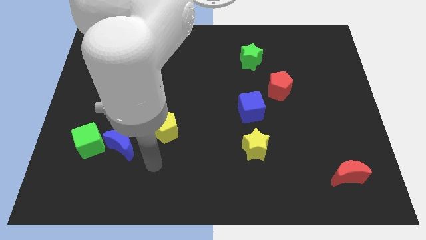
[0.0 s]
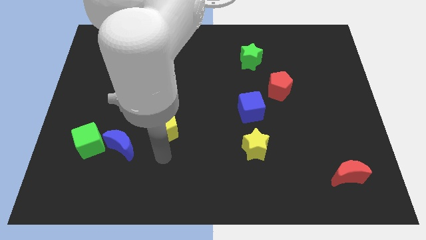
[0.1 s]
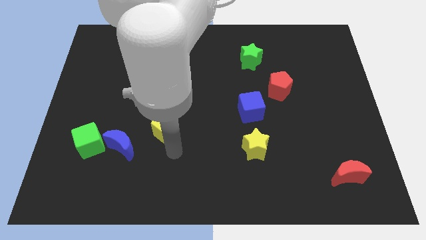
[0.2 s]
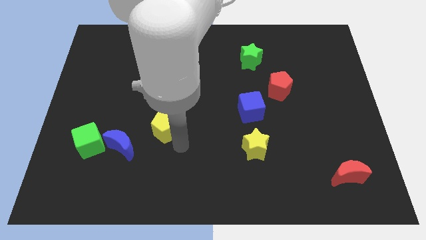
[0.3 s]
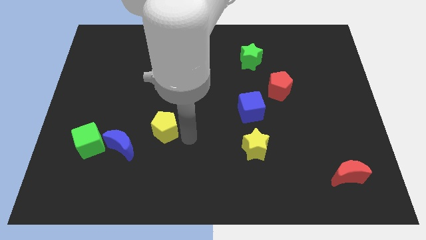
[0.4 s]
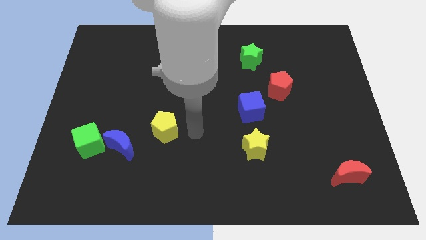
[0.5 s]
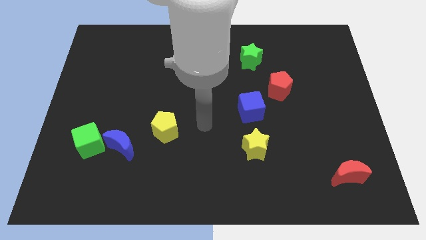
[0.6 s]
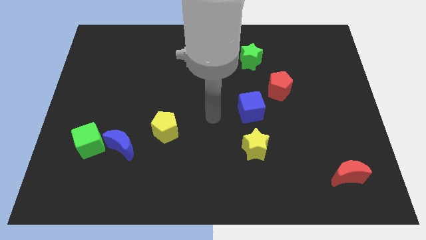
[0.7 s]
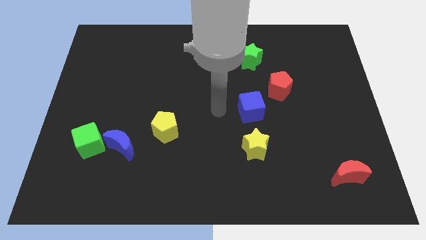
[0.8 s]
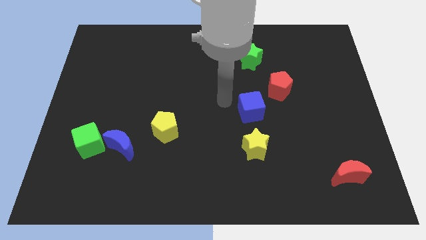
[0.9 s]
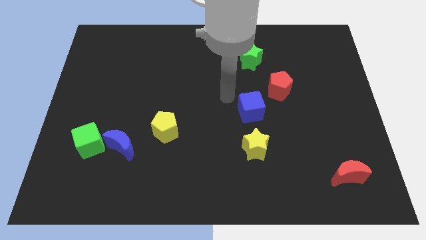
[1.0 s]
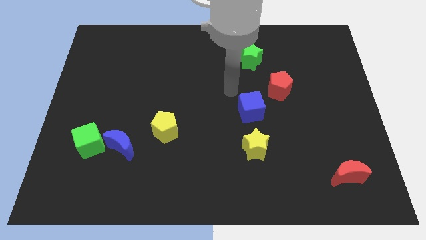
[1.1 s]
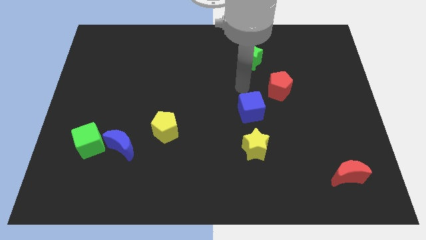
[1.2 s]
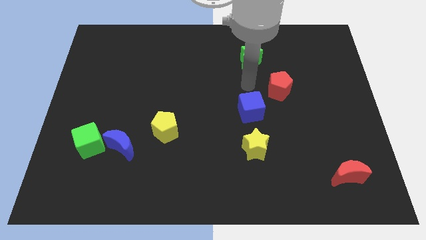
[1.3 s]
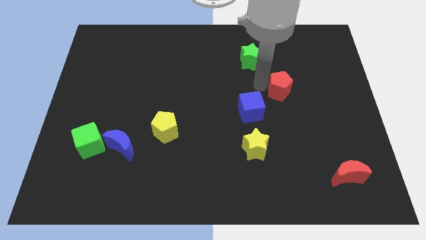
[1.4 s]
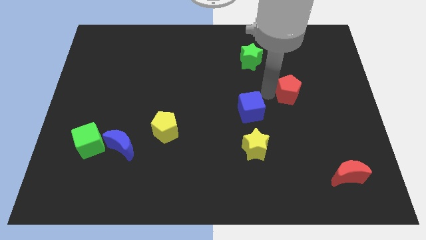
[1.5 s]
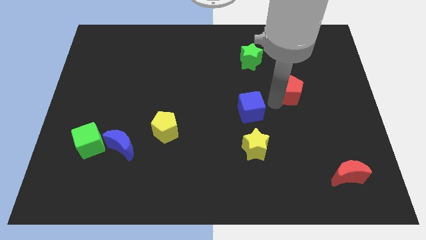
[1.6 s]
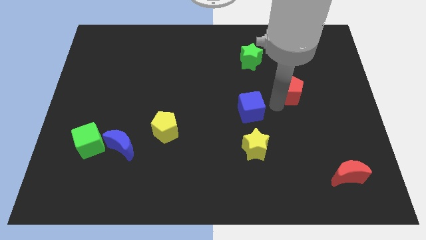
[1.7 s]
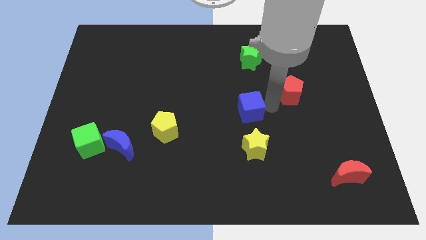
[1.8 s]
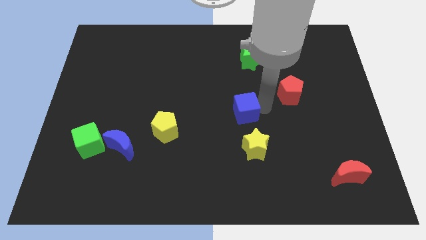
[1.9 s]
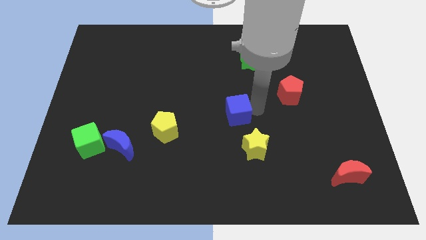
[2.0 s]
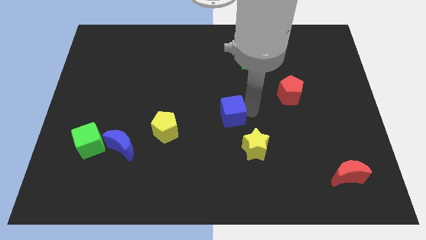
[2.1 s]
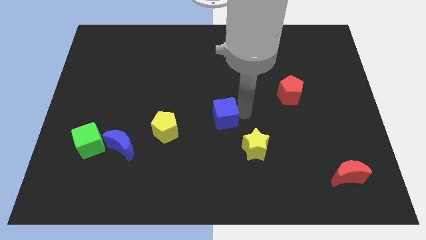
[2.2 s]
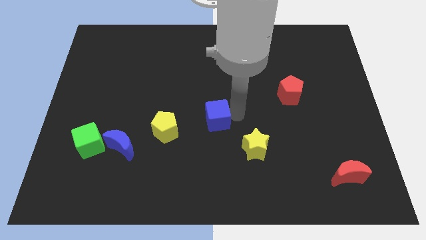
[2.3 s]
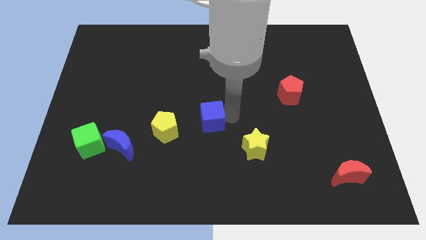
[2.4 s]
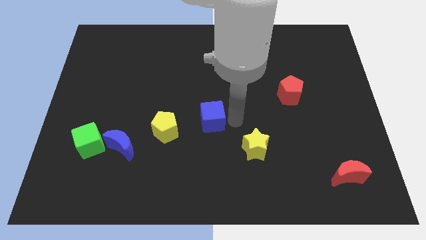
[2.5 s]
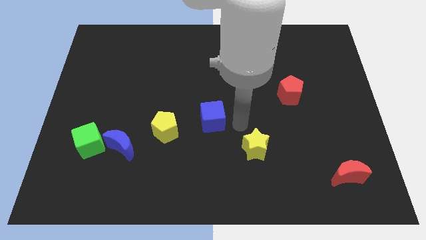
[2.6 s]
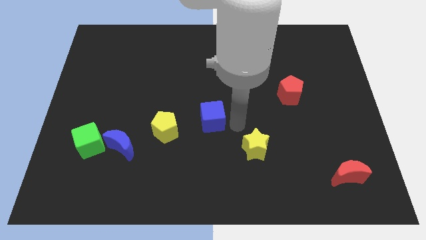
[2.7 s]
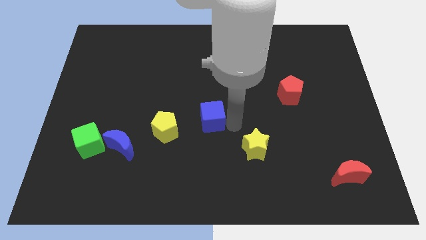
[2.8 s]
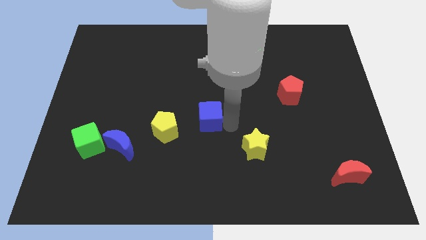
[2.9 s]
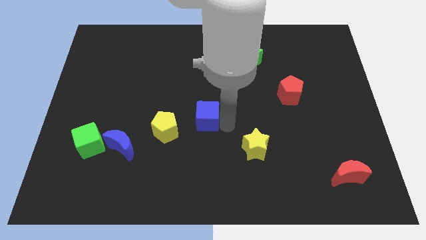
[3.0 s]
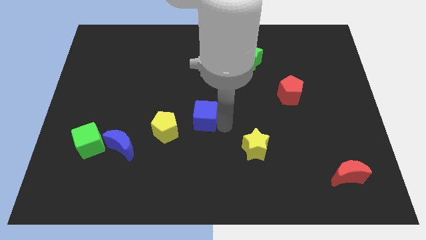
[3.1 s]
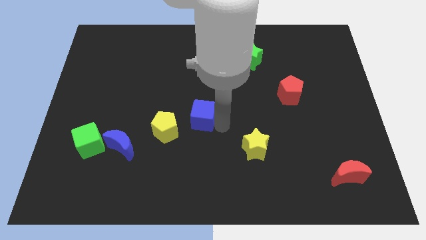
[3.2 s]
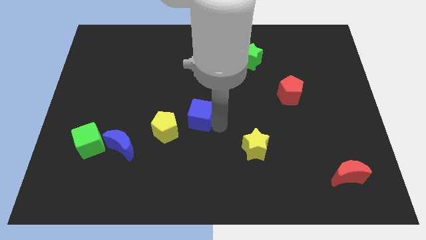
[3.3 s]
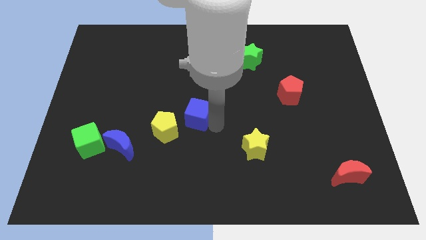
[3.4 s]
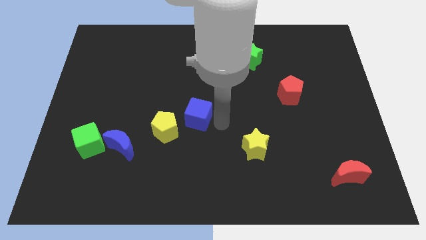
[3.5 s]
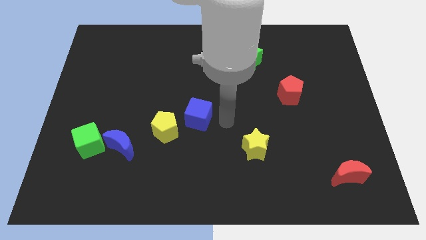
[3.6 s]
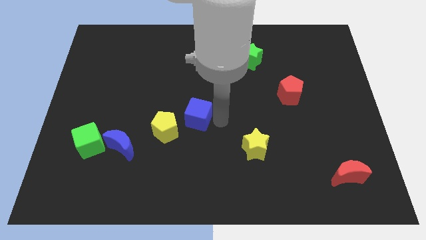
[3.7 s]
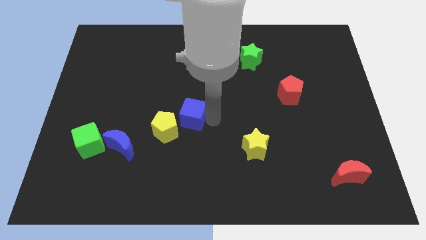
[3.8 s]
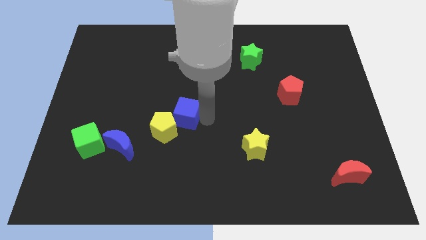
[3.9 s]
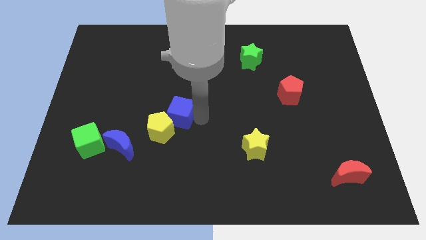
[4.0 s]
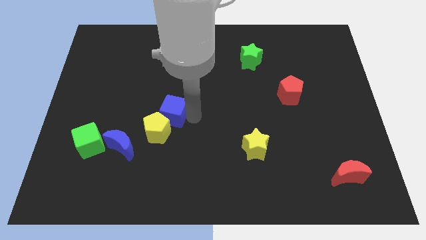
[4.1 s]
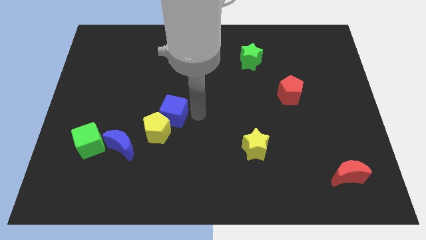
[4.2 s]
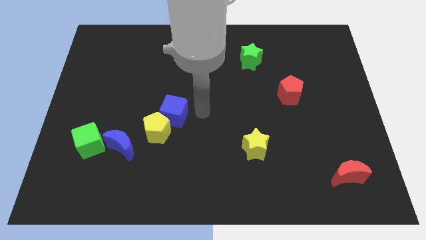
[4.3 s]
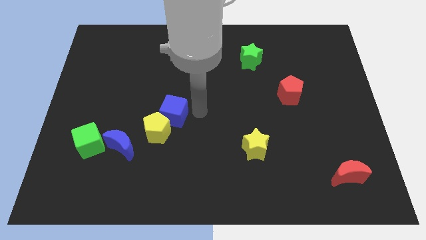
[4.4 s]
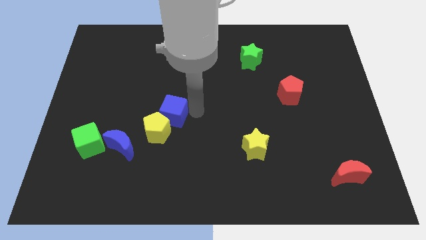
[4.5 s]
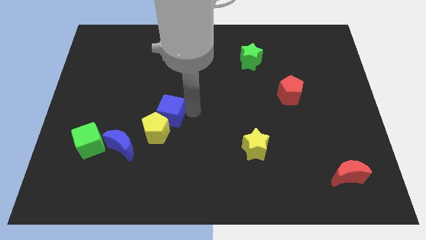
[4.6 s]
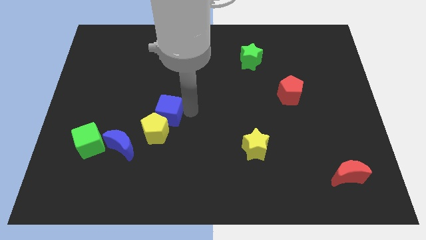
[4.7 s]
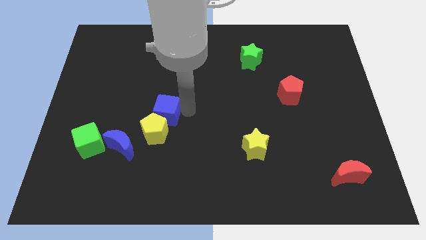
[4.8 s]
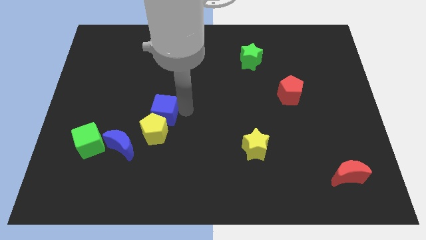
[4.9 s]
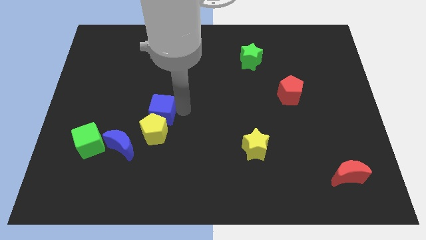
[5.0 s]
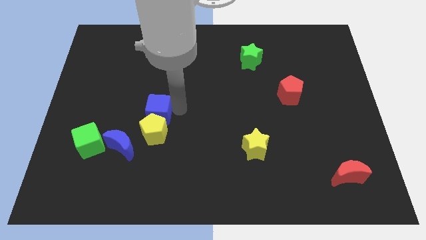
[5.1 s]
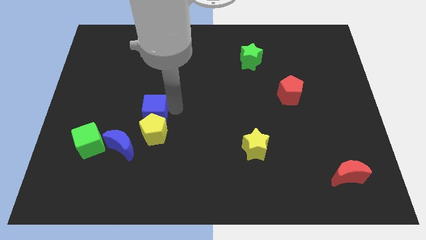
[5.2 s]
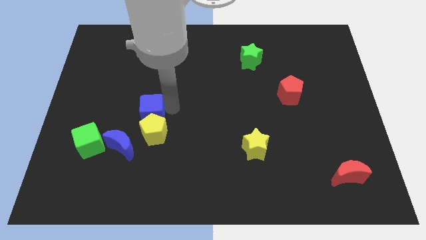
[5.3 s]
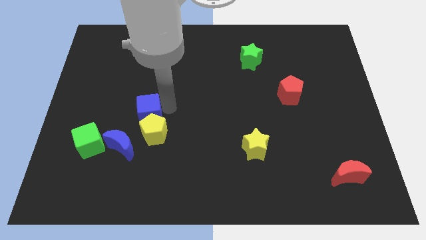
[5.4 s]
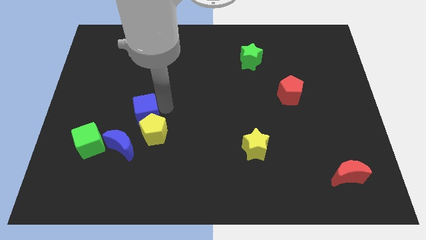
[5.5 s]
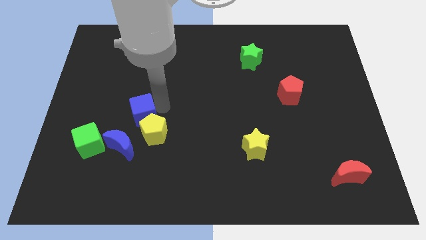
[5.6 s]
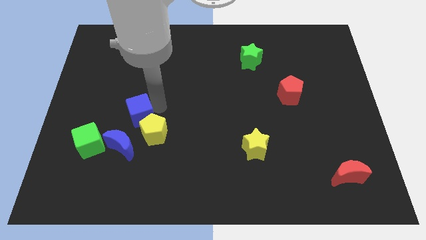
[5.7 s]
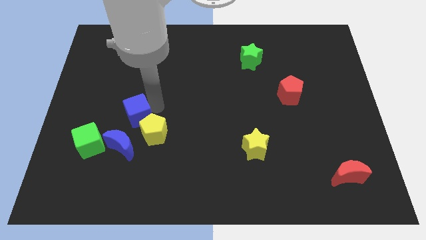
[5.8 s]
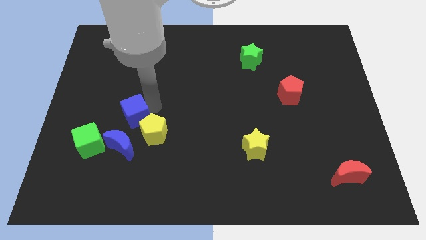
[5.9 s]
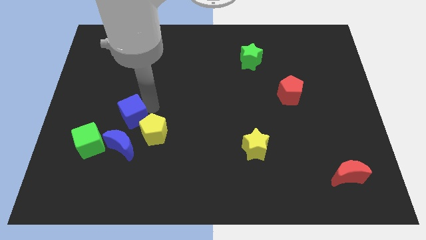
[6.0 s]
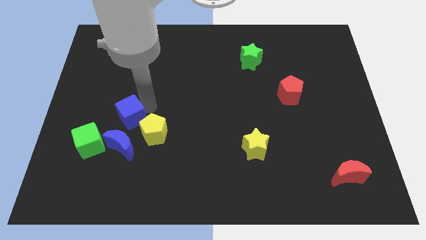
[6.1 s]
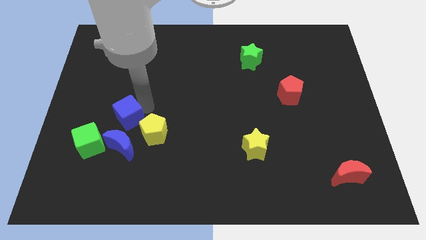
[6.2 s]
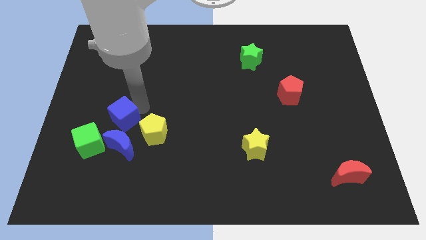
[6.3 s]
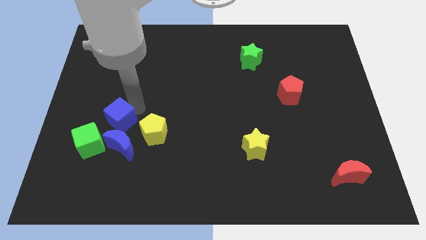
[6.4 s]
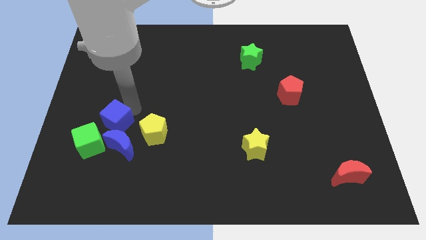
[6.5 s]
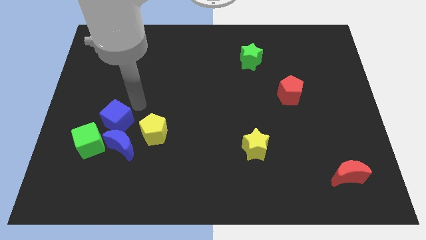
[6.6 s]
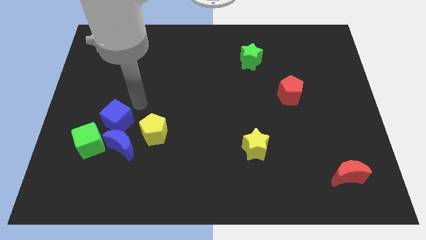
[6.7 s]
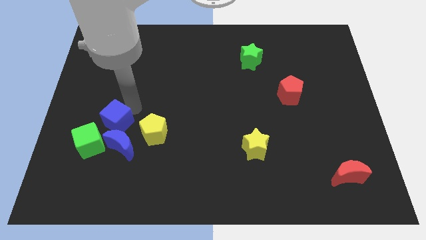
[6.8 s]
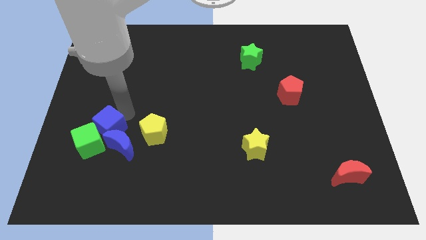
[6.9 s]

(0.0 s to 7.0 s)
move the blue cube next to the green cube

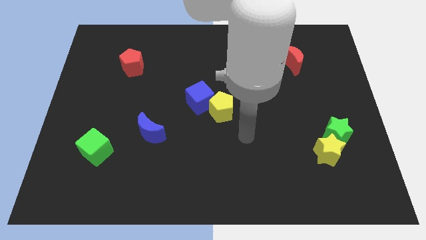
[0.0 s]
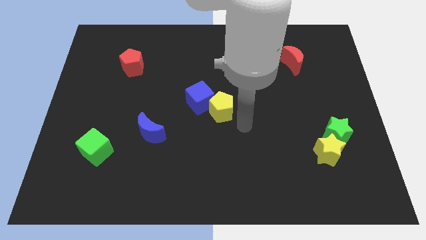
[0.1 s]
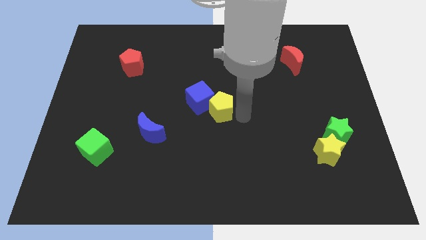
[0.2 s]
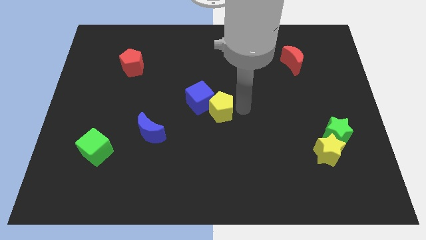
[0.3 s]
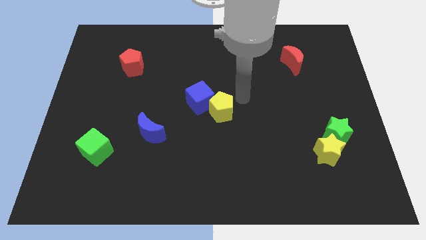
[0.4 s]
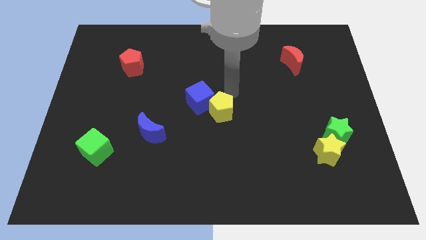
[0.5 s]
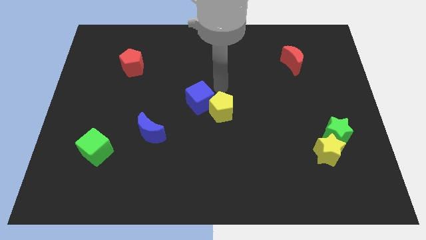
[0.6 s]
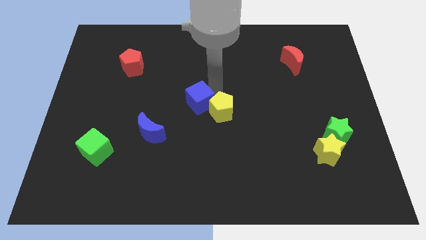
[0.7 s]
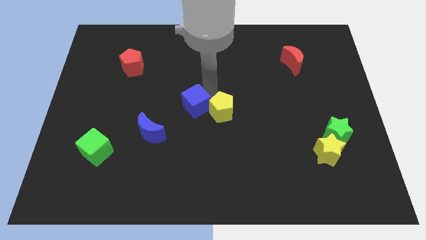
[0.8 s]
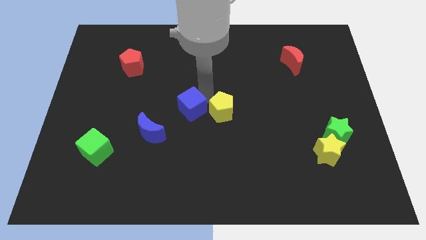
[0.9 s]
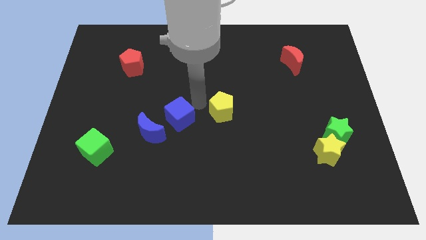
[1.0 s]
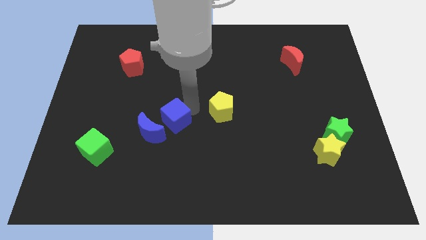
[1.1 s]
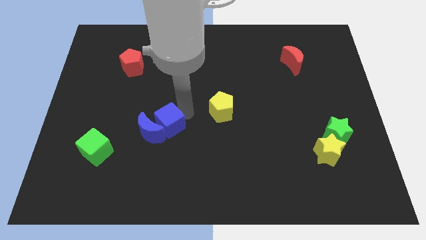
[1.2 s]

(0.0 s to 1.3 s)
put the blue cube close to the blue moon
